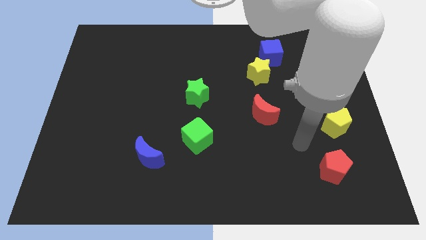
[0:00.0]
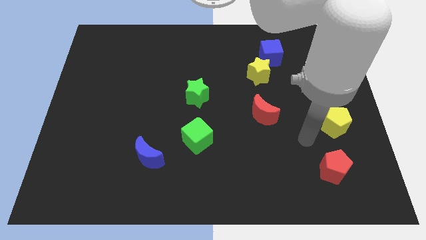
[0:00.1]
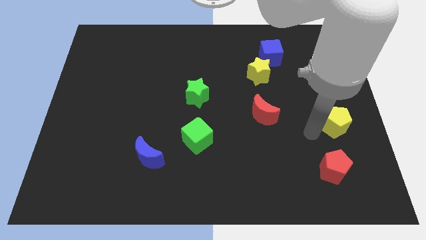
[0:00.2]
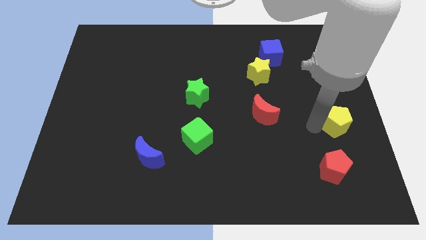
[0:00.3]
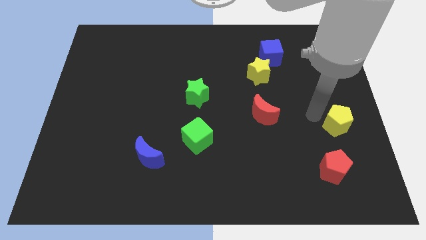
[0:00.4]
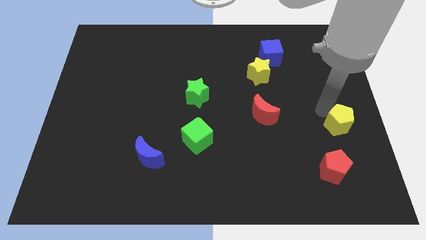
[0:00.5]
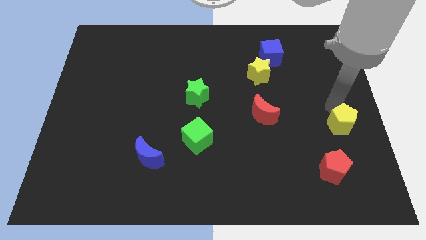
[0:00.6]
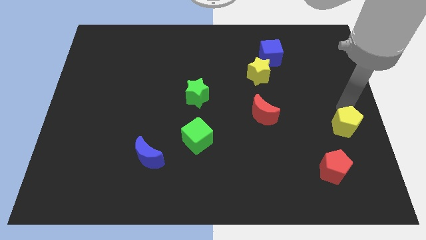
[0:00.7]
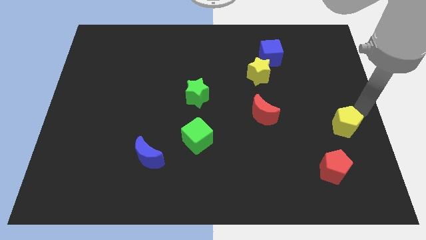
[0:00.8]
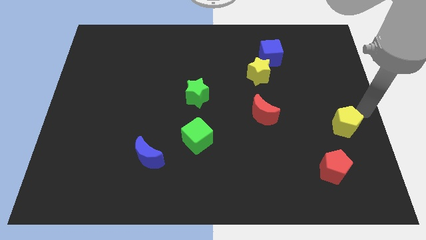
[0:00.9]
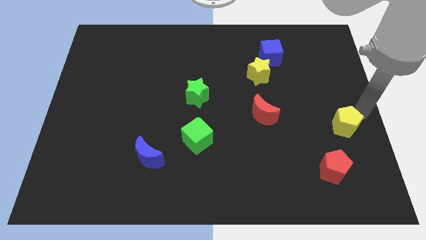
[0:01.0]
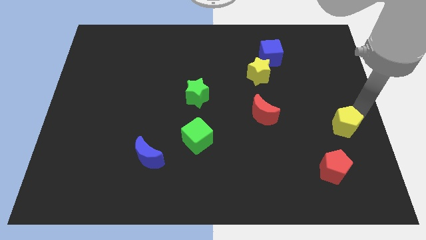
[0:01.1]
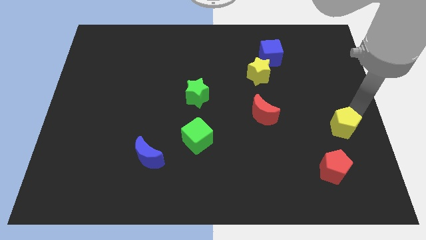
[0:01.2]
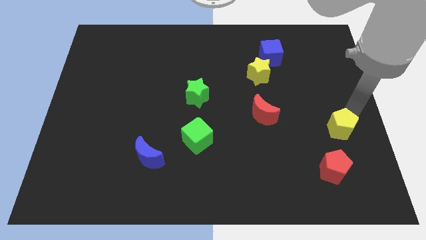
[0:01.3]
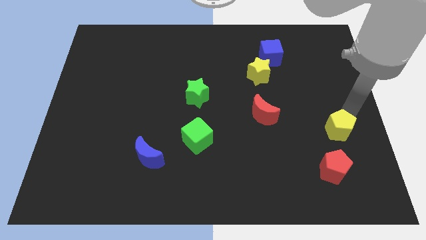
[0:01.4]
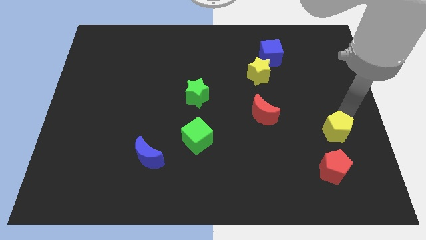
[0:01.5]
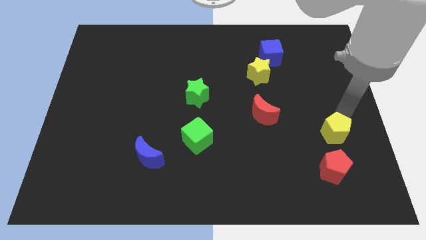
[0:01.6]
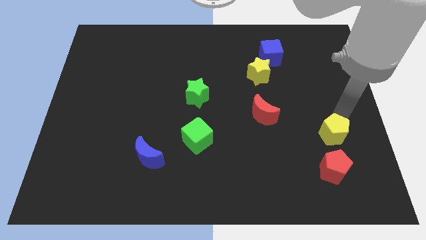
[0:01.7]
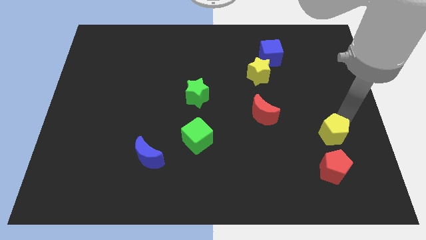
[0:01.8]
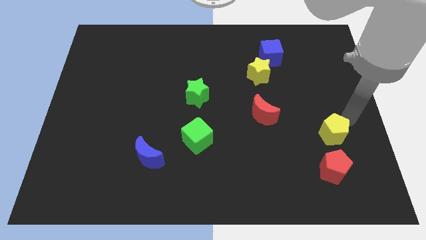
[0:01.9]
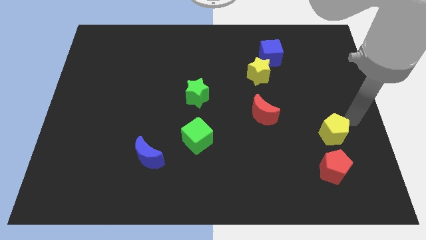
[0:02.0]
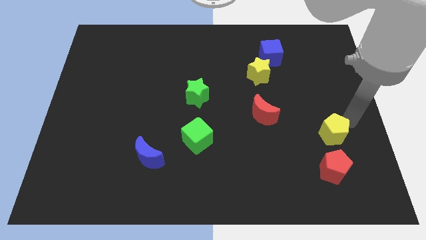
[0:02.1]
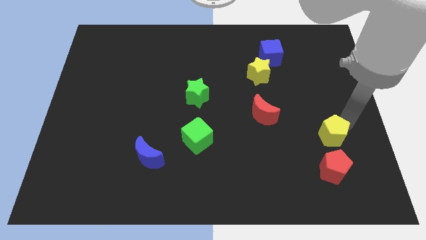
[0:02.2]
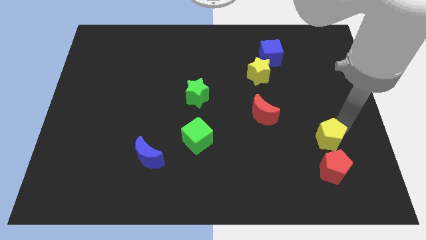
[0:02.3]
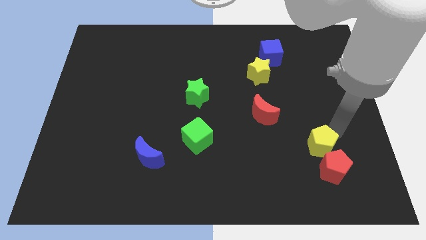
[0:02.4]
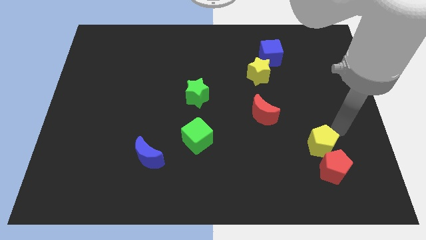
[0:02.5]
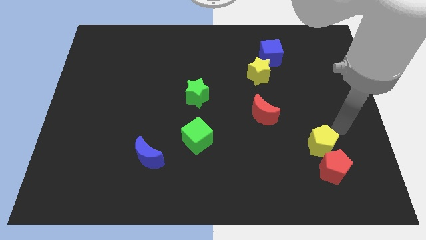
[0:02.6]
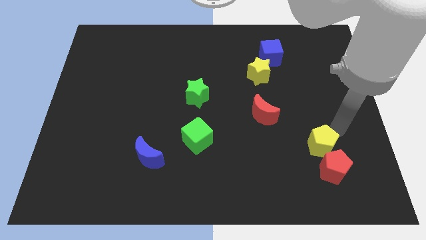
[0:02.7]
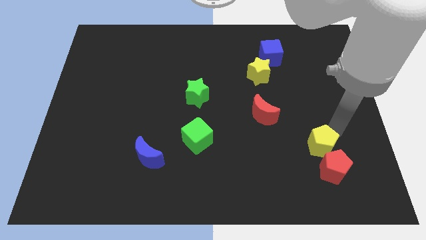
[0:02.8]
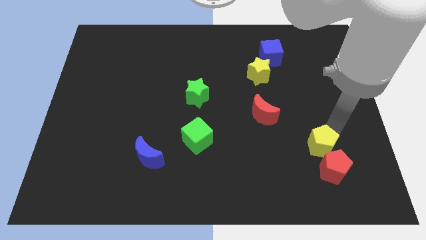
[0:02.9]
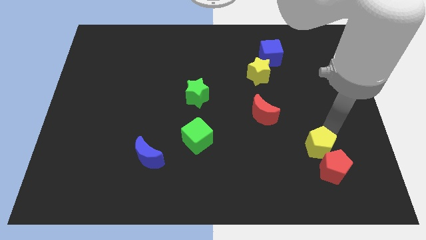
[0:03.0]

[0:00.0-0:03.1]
push the yellow pentagon a bit downwards and then left

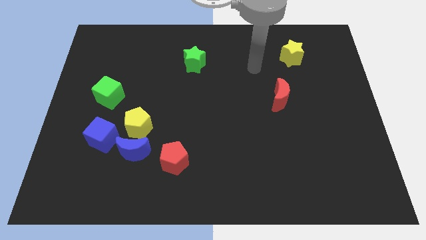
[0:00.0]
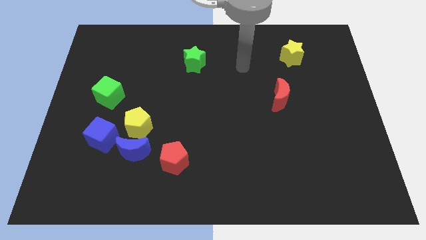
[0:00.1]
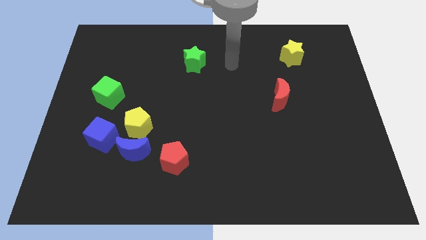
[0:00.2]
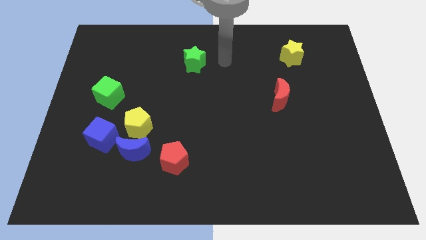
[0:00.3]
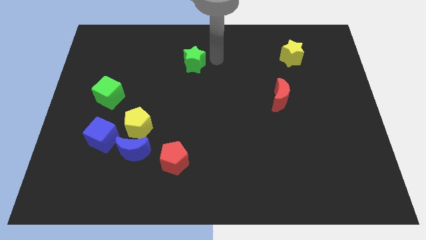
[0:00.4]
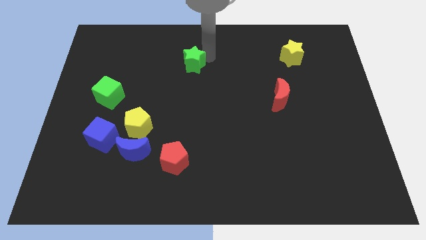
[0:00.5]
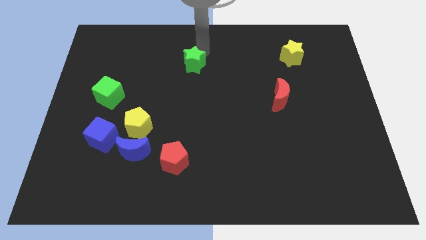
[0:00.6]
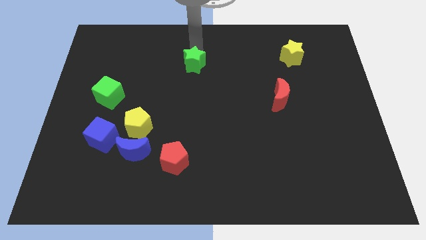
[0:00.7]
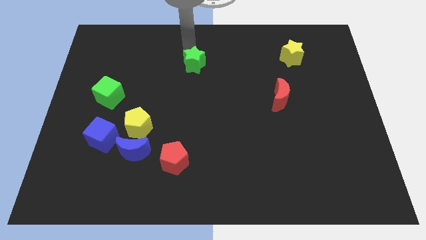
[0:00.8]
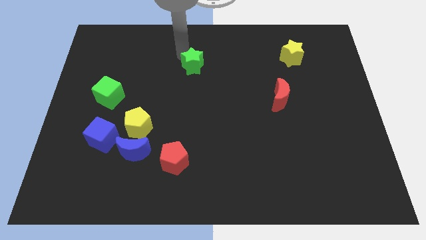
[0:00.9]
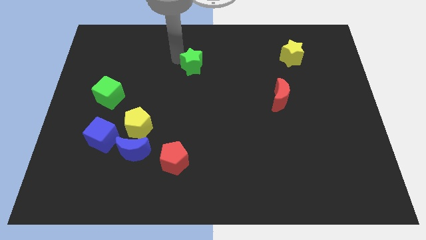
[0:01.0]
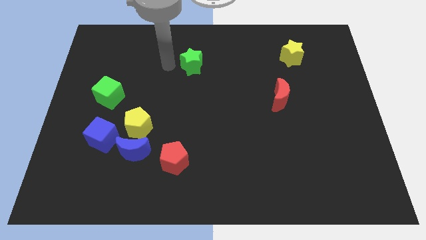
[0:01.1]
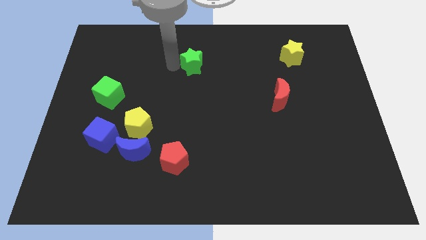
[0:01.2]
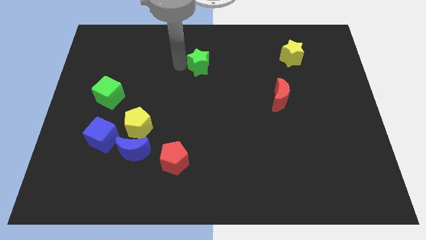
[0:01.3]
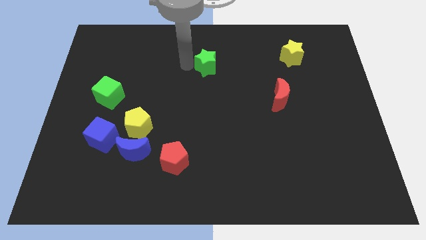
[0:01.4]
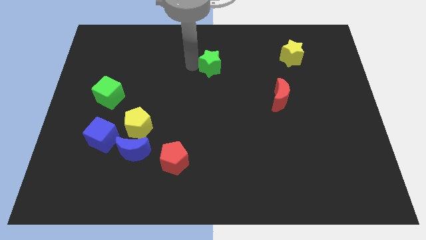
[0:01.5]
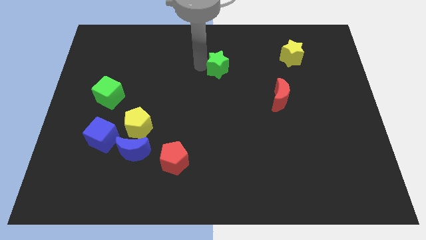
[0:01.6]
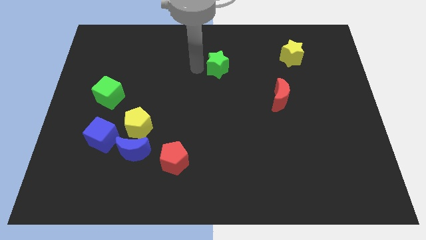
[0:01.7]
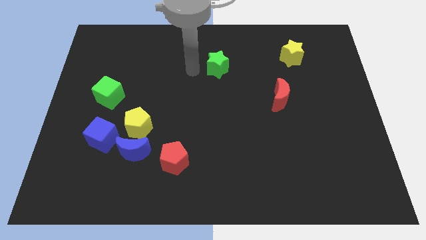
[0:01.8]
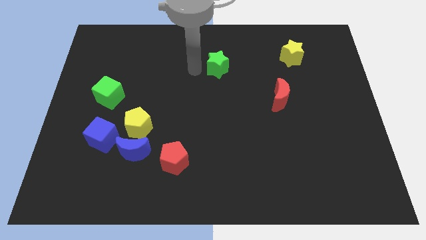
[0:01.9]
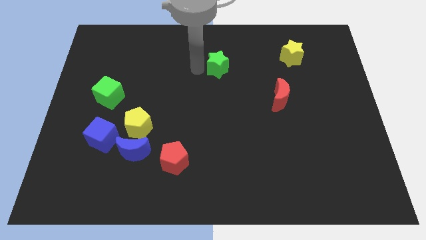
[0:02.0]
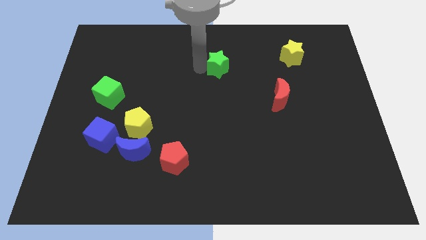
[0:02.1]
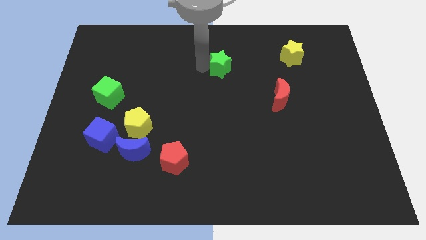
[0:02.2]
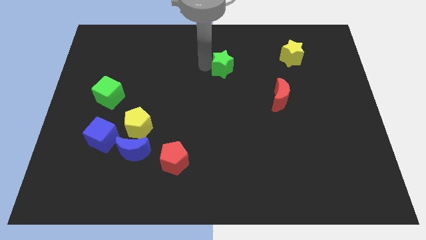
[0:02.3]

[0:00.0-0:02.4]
slightly move the green star to the right

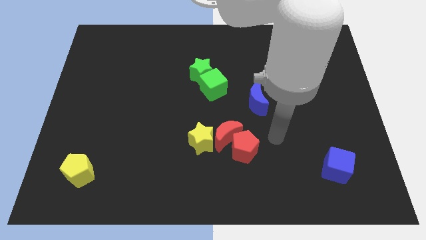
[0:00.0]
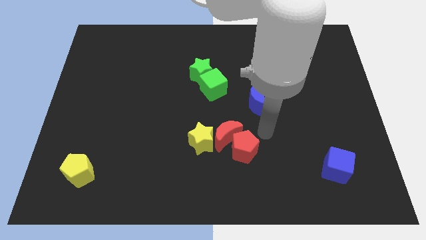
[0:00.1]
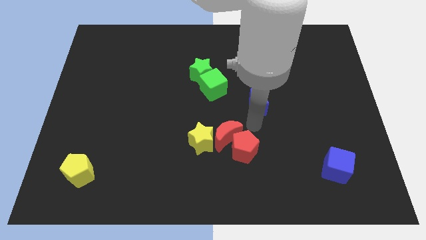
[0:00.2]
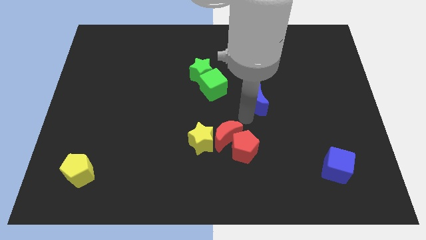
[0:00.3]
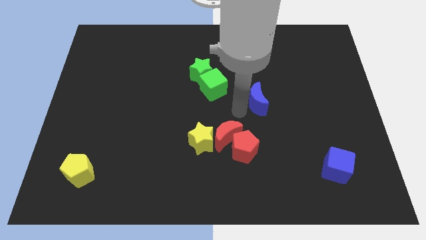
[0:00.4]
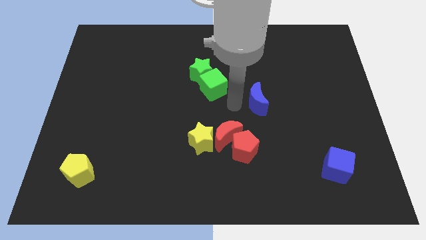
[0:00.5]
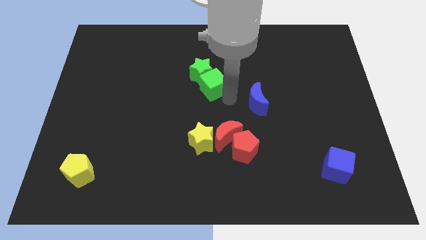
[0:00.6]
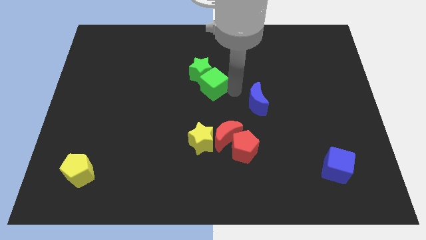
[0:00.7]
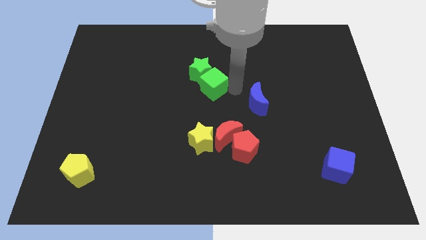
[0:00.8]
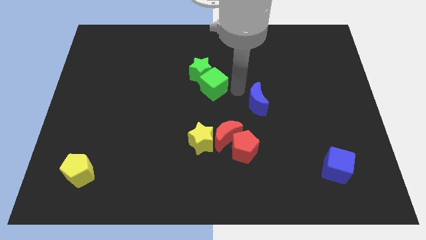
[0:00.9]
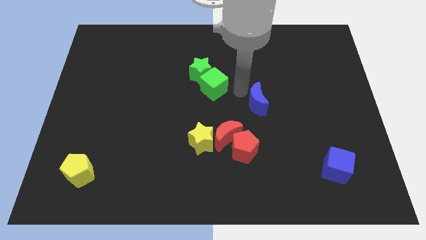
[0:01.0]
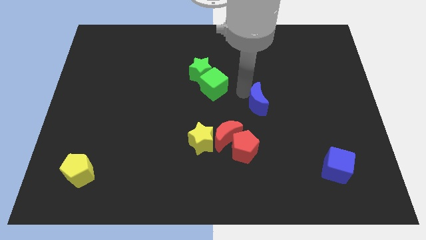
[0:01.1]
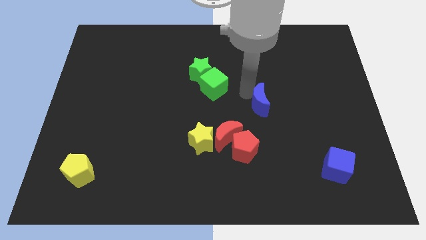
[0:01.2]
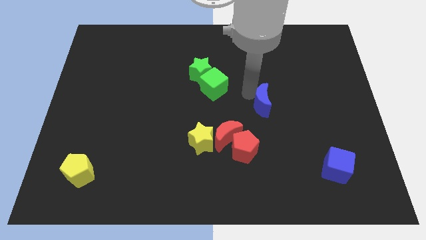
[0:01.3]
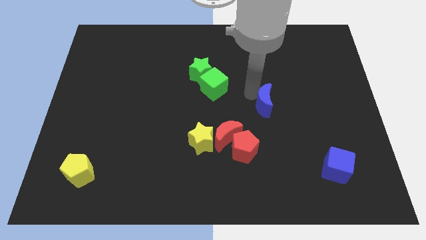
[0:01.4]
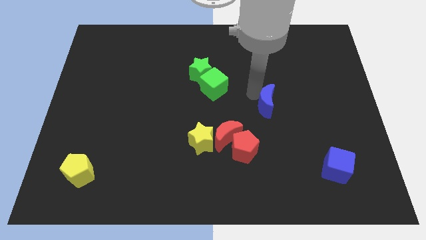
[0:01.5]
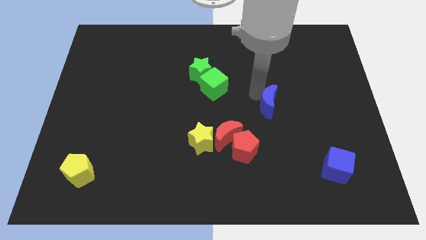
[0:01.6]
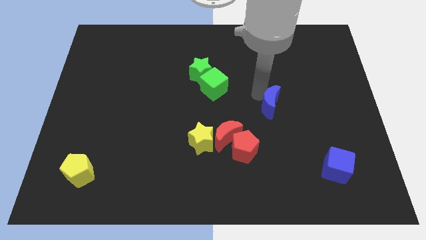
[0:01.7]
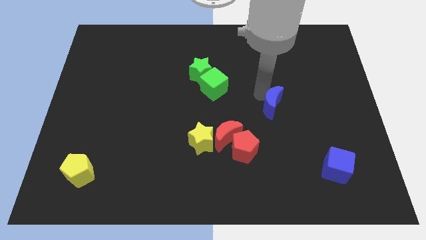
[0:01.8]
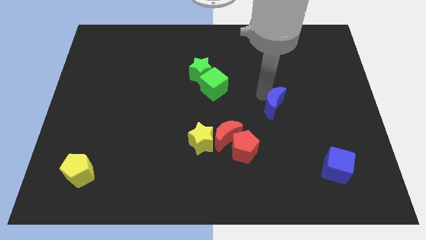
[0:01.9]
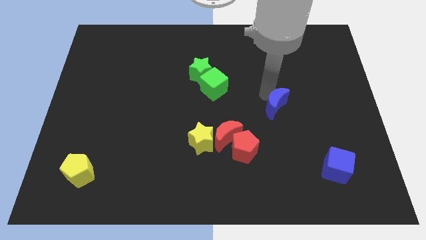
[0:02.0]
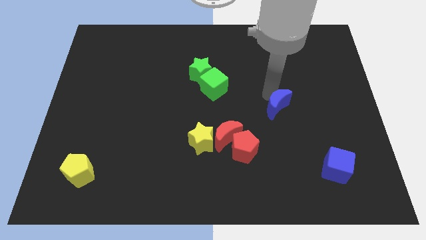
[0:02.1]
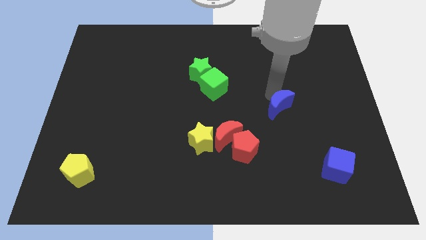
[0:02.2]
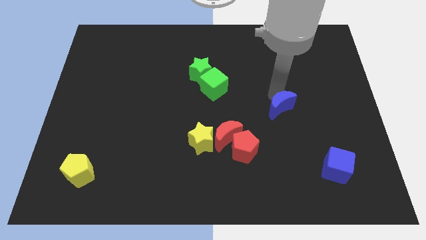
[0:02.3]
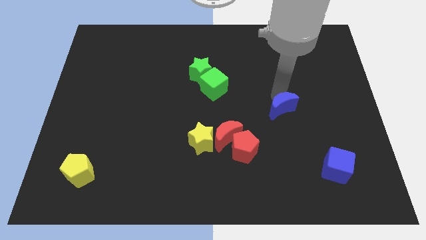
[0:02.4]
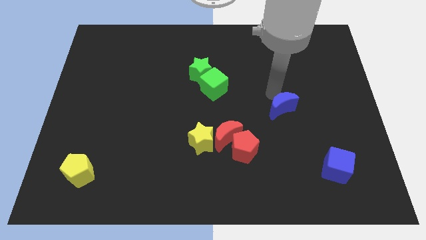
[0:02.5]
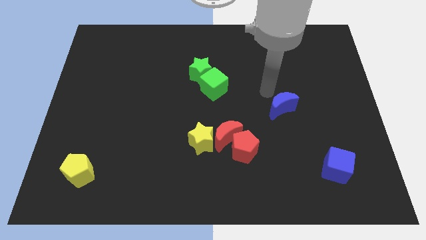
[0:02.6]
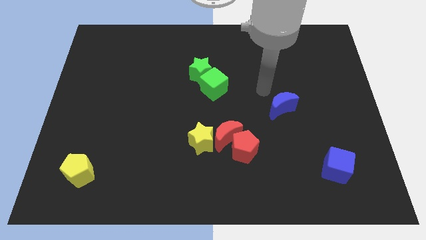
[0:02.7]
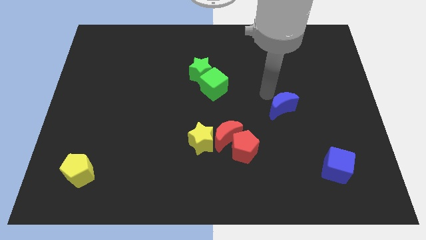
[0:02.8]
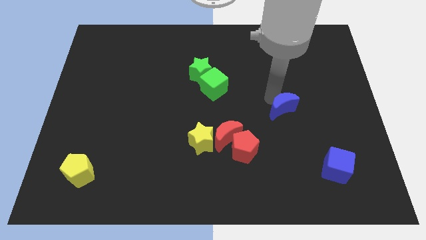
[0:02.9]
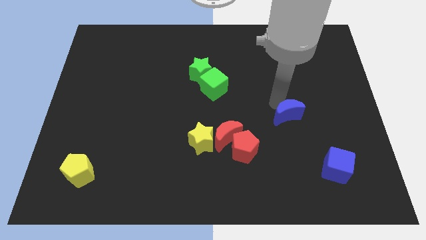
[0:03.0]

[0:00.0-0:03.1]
slightly slide the blue moon down and to the right
